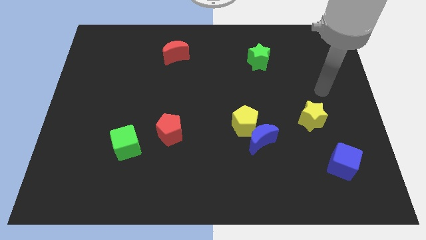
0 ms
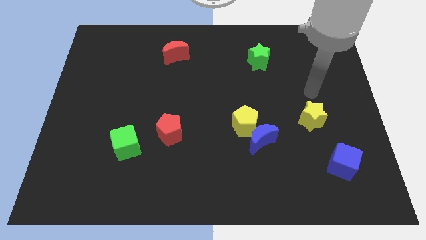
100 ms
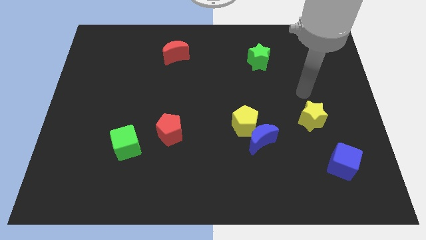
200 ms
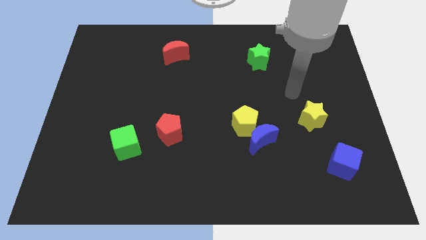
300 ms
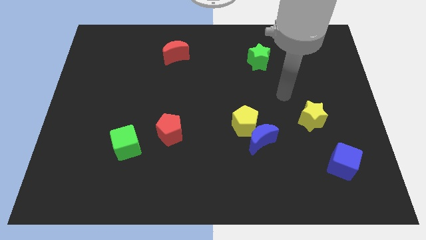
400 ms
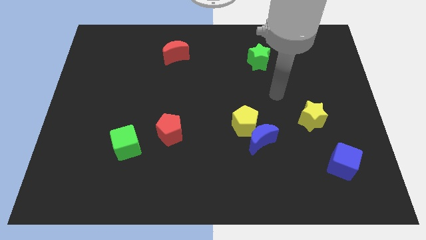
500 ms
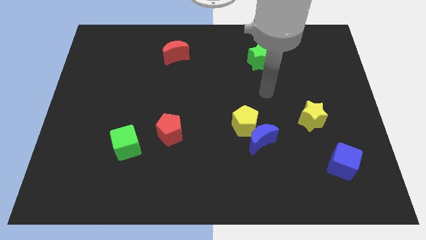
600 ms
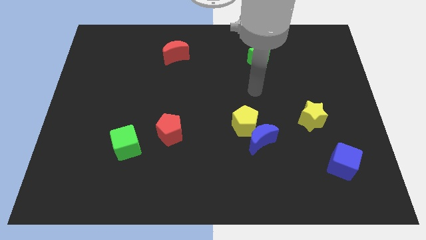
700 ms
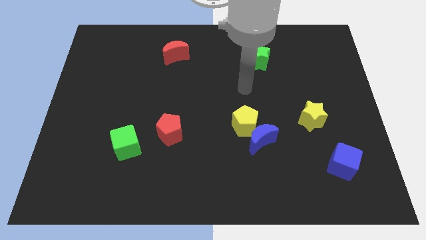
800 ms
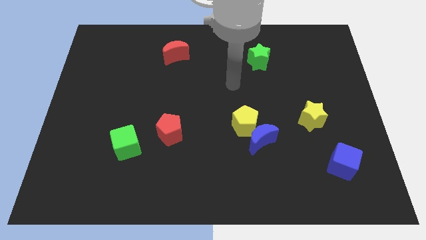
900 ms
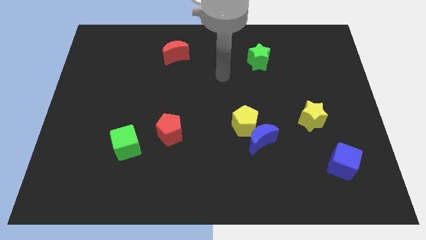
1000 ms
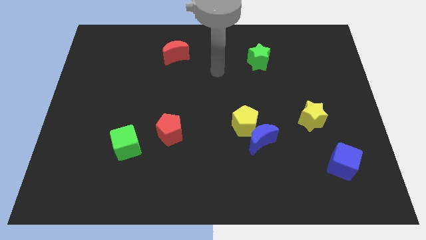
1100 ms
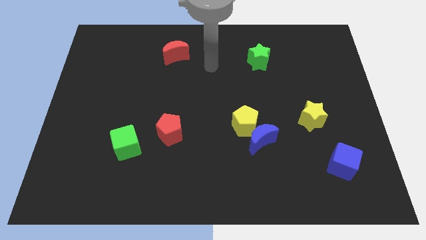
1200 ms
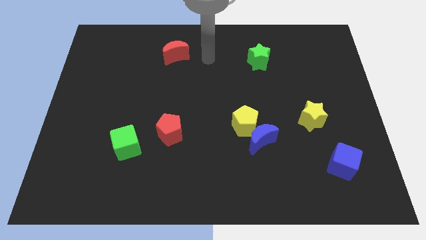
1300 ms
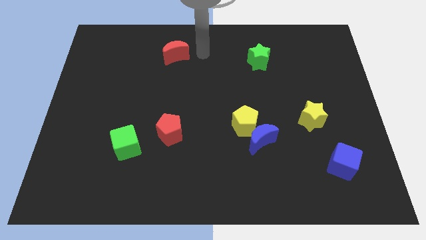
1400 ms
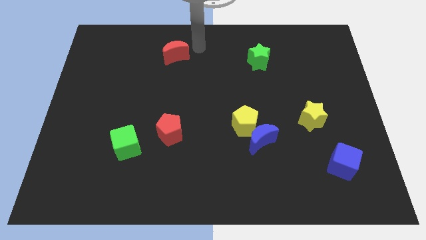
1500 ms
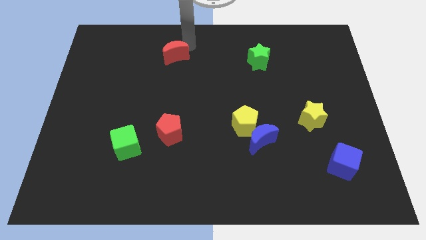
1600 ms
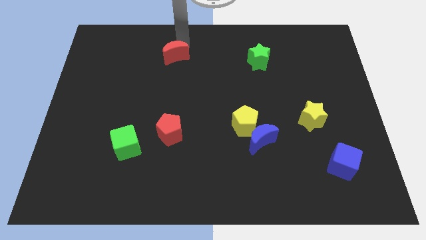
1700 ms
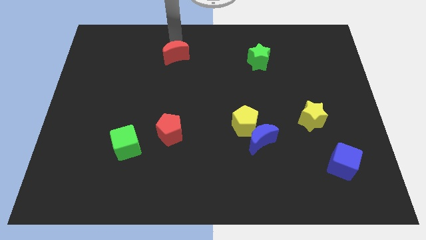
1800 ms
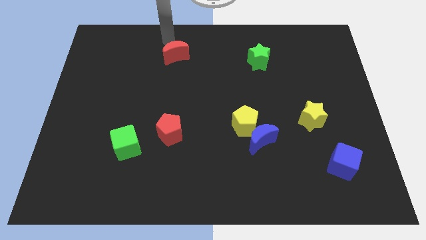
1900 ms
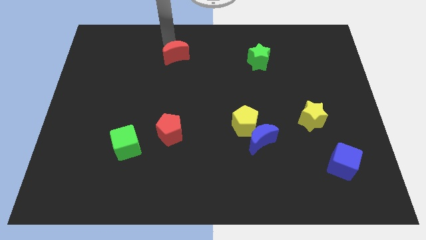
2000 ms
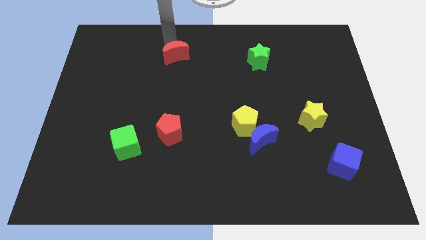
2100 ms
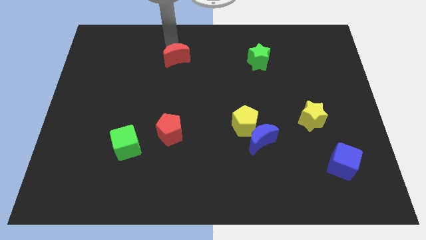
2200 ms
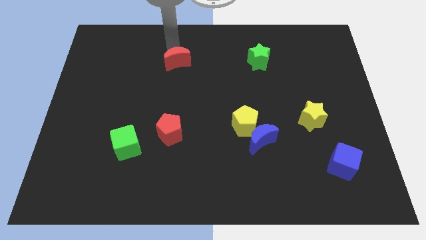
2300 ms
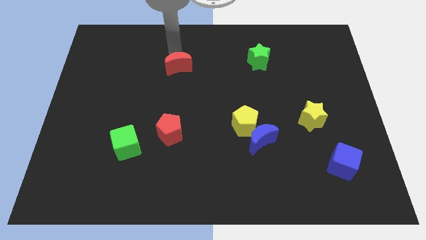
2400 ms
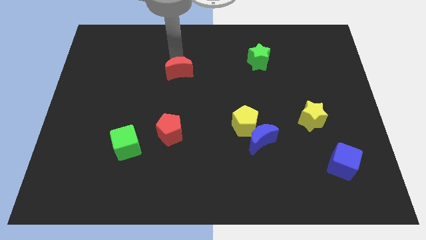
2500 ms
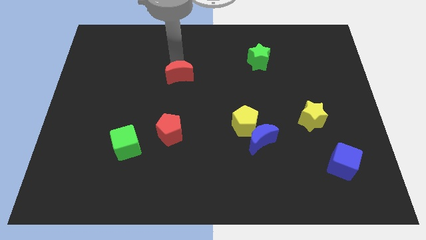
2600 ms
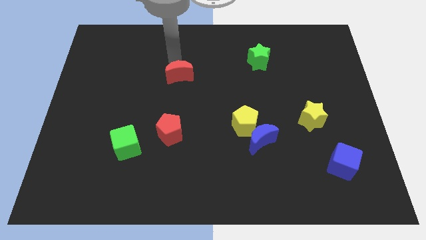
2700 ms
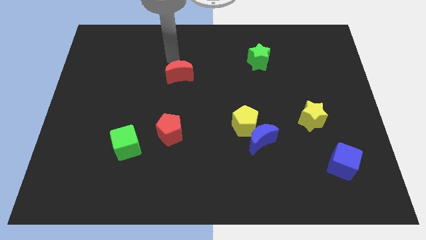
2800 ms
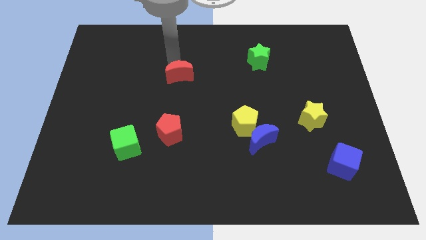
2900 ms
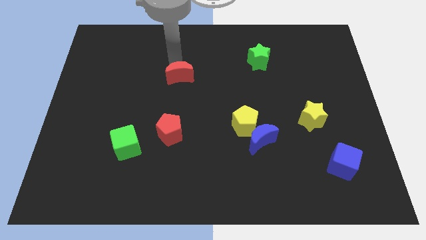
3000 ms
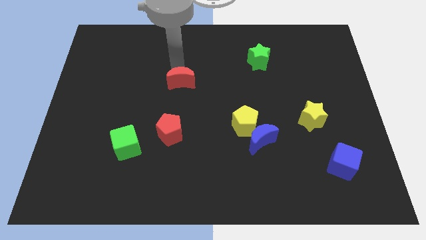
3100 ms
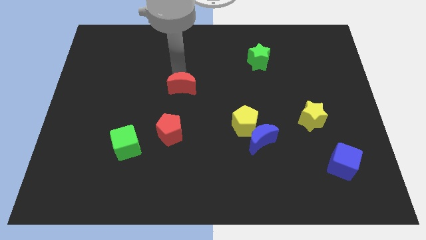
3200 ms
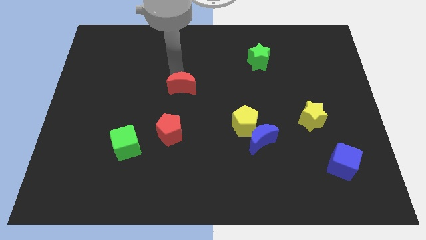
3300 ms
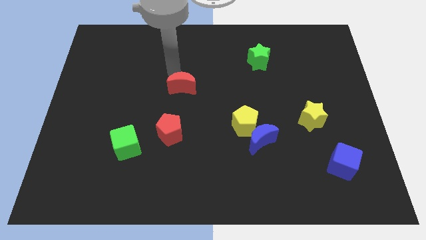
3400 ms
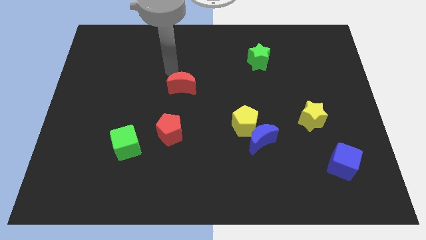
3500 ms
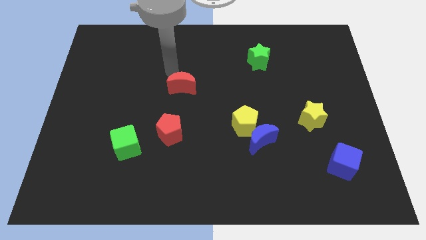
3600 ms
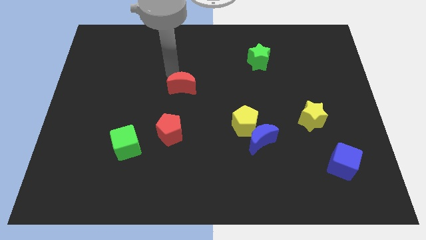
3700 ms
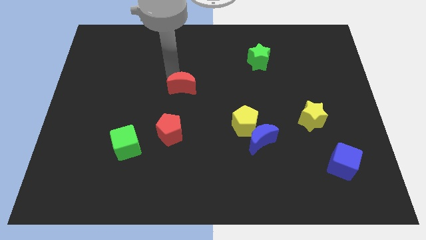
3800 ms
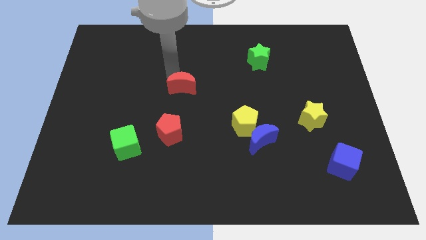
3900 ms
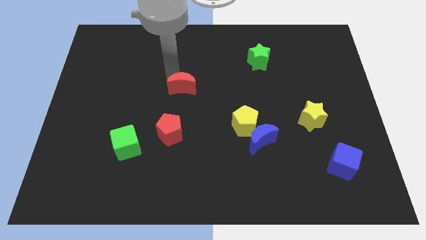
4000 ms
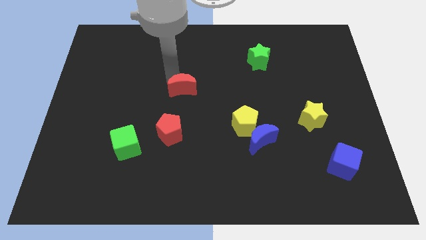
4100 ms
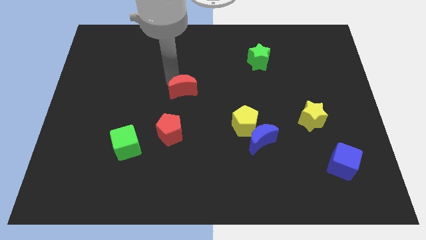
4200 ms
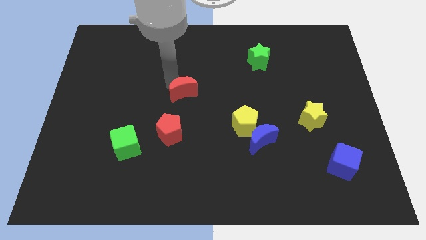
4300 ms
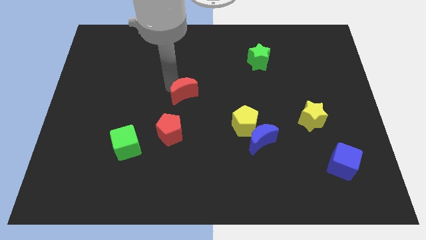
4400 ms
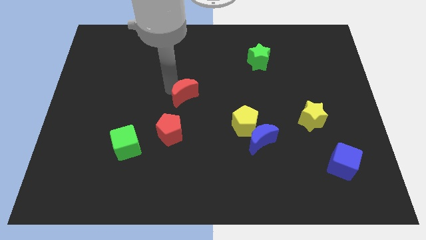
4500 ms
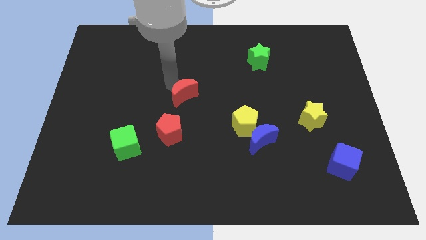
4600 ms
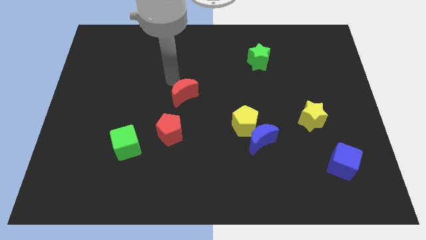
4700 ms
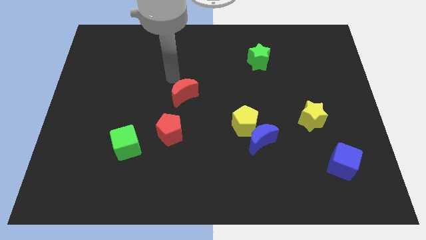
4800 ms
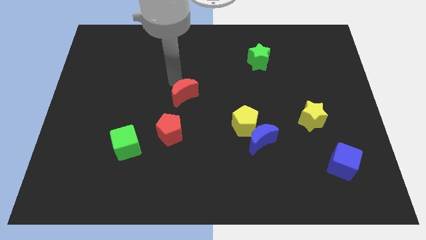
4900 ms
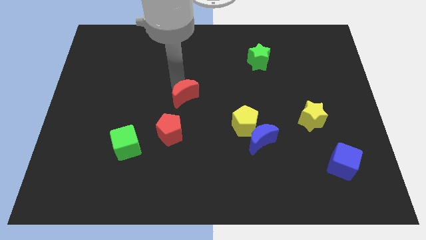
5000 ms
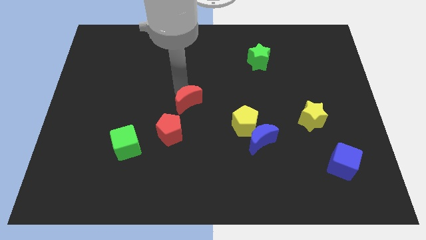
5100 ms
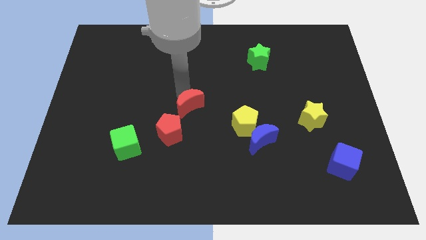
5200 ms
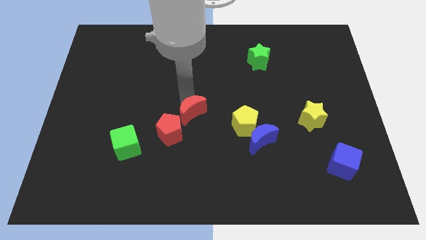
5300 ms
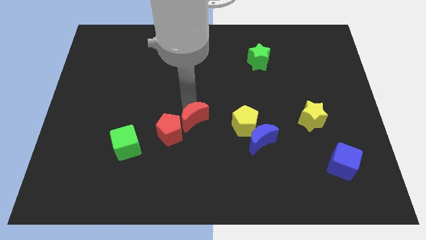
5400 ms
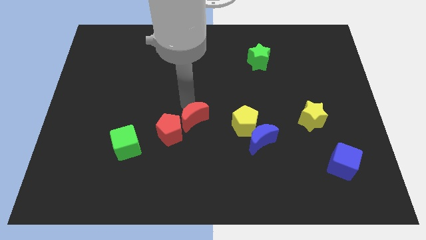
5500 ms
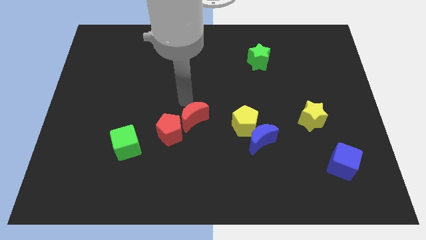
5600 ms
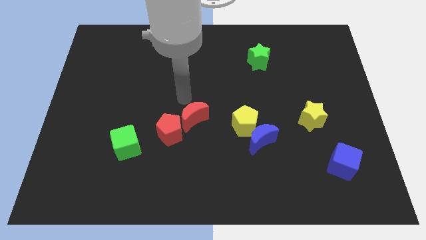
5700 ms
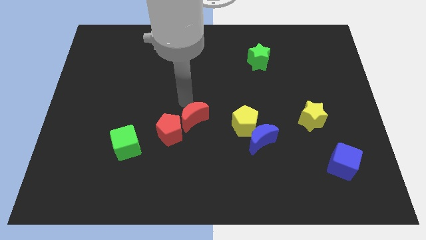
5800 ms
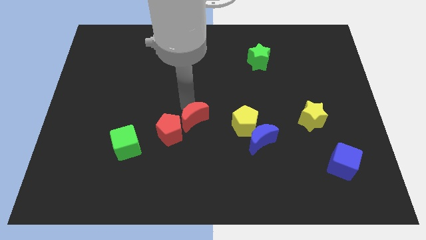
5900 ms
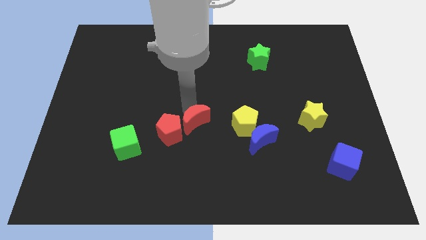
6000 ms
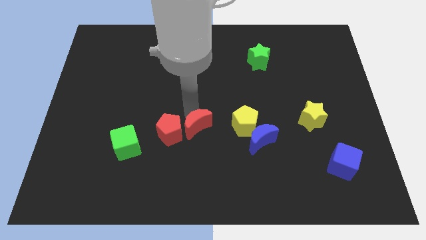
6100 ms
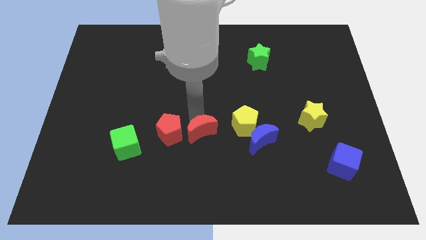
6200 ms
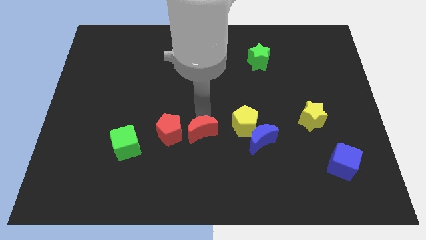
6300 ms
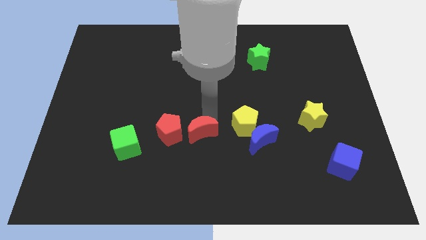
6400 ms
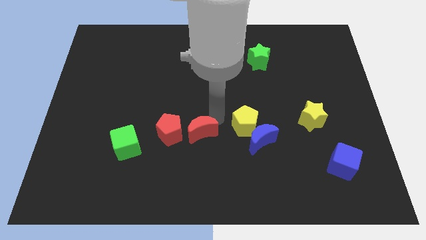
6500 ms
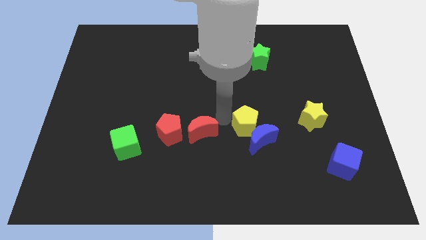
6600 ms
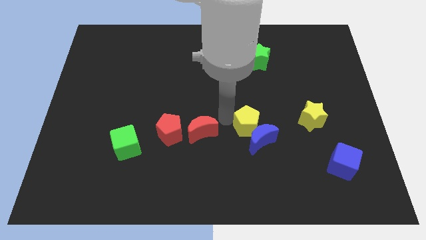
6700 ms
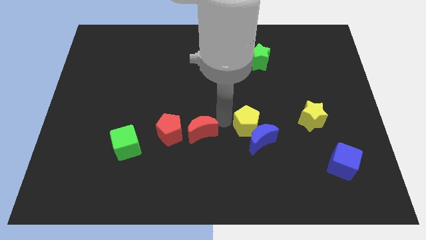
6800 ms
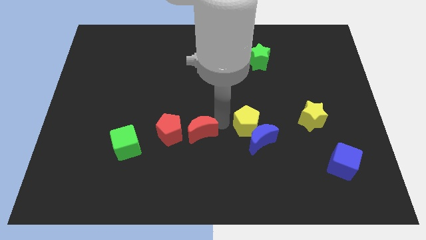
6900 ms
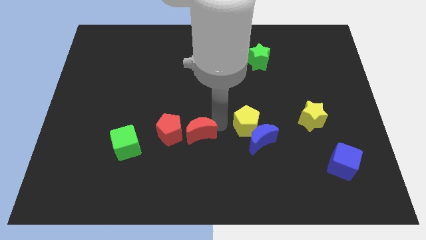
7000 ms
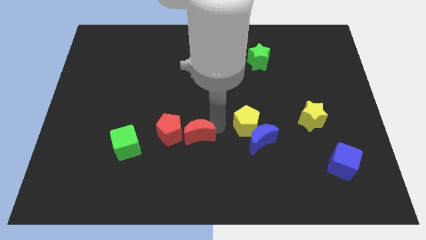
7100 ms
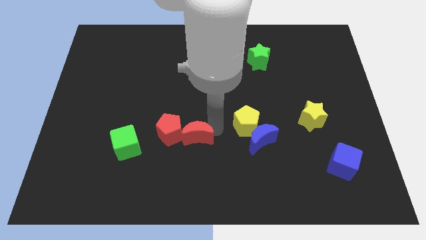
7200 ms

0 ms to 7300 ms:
move the red moon just right of the green cube
